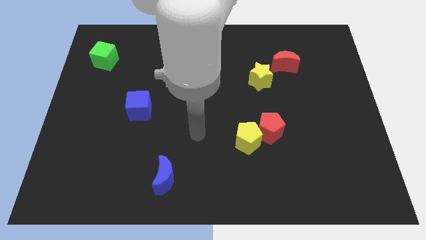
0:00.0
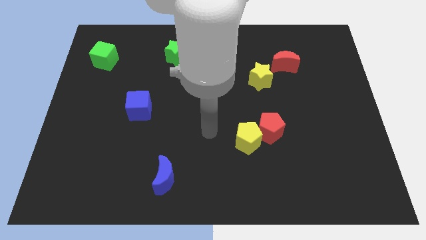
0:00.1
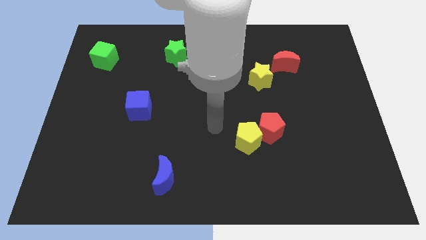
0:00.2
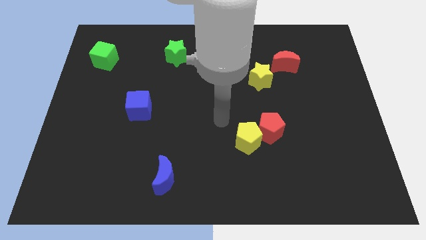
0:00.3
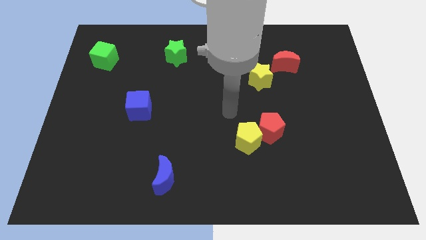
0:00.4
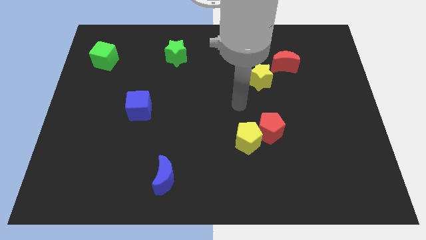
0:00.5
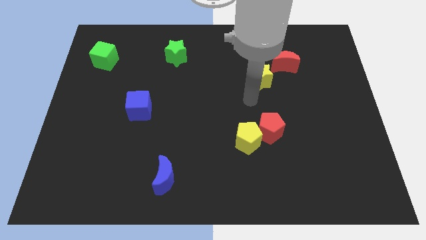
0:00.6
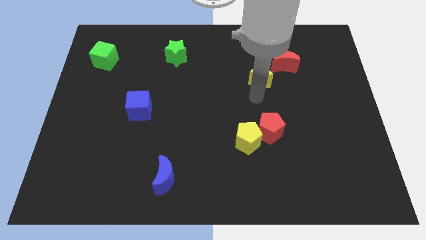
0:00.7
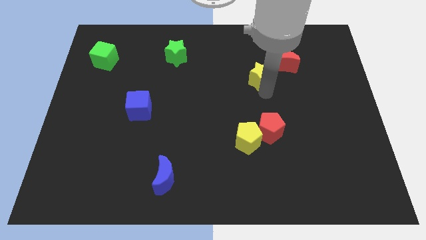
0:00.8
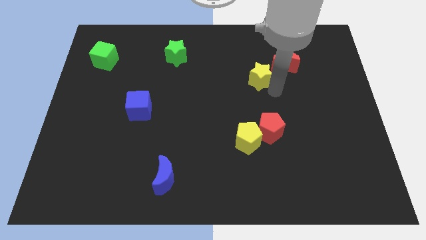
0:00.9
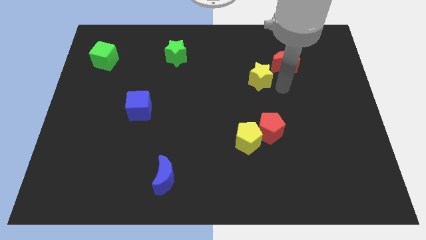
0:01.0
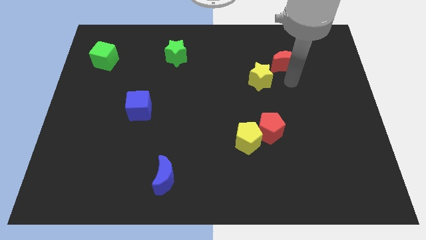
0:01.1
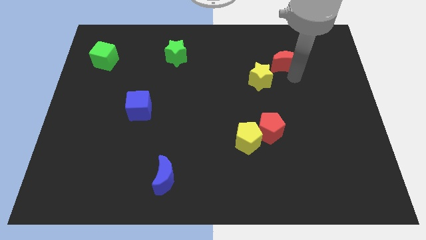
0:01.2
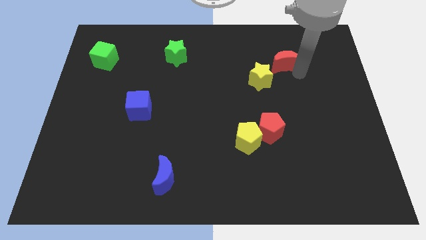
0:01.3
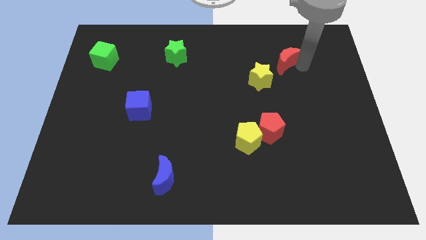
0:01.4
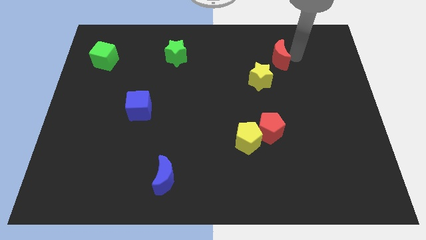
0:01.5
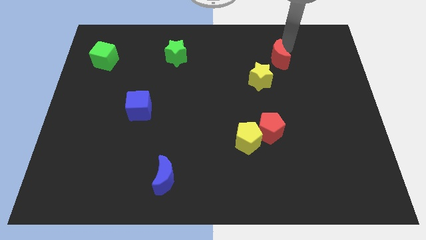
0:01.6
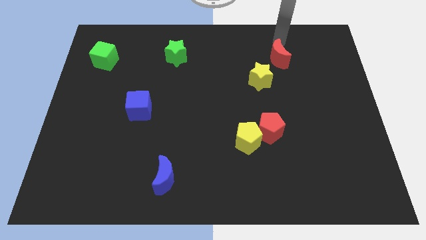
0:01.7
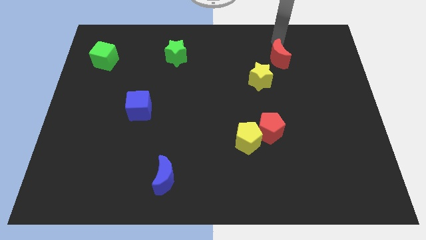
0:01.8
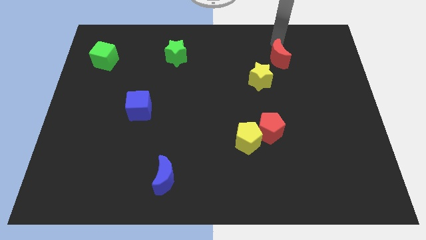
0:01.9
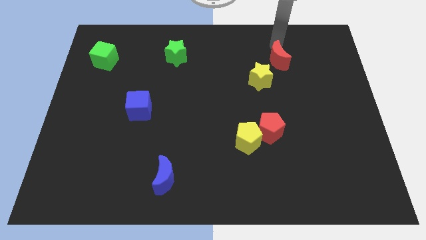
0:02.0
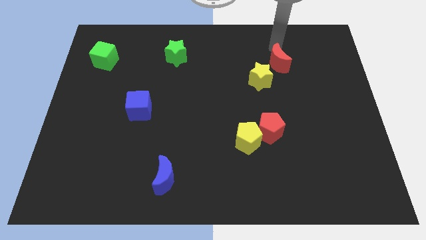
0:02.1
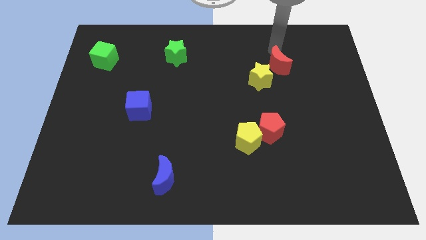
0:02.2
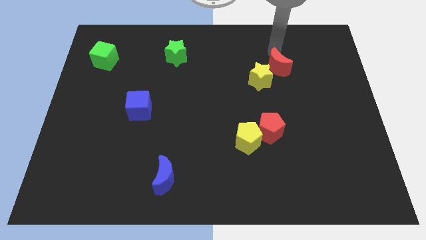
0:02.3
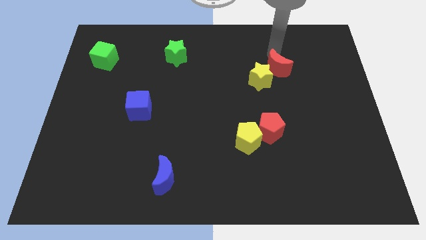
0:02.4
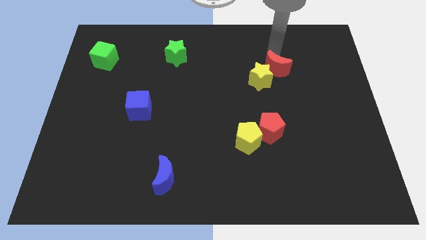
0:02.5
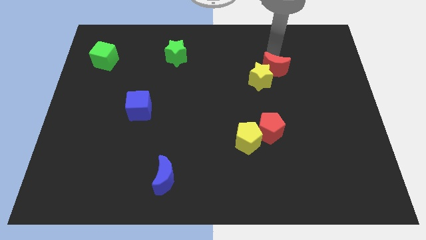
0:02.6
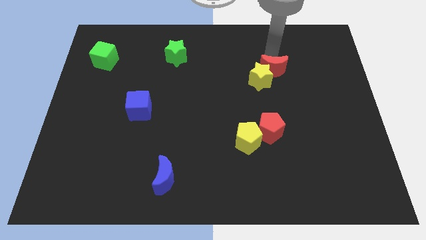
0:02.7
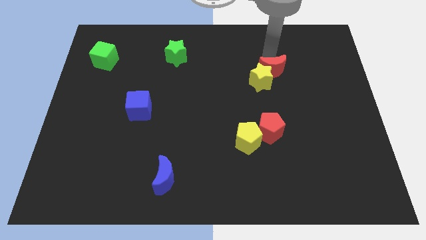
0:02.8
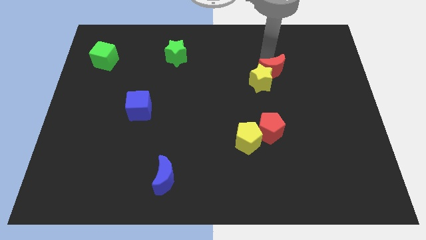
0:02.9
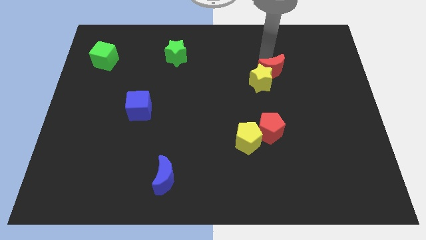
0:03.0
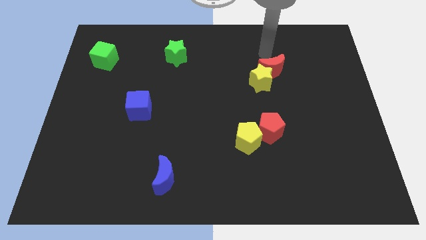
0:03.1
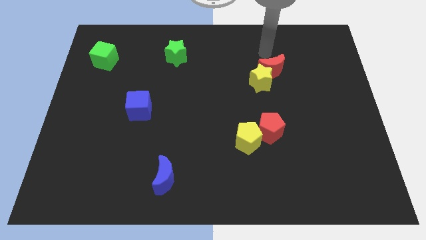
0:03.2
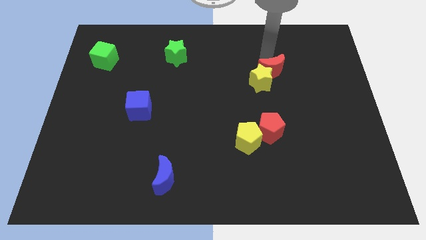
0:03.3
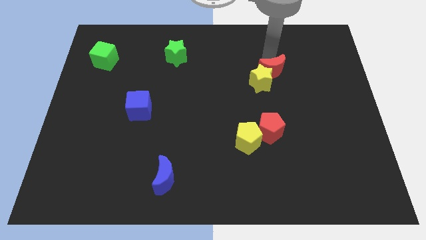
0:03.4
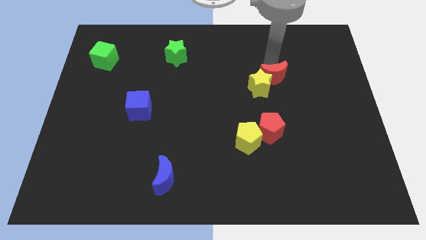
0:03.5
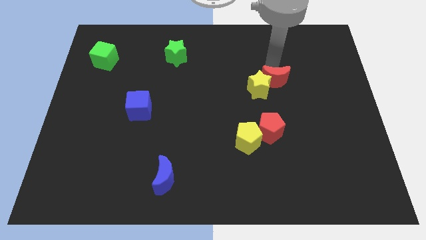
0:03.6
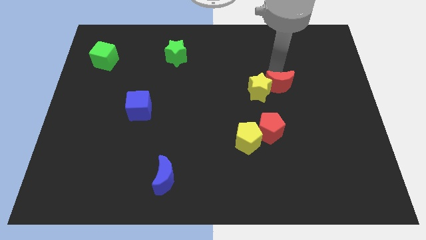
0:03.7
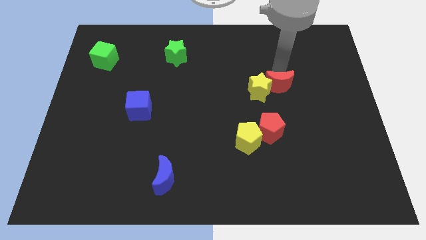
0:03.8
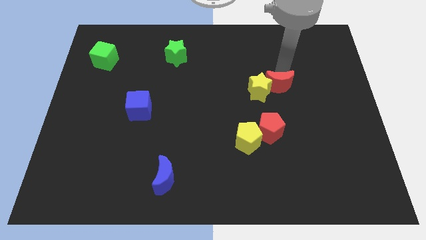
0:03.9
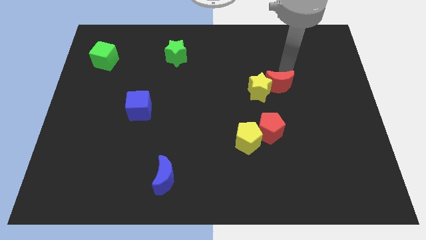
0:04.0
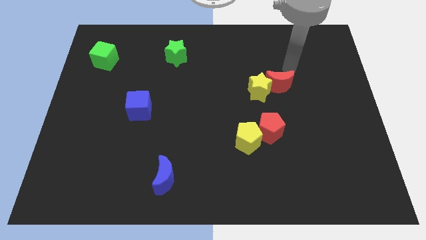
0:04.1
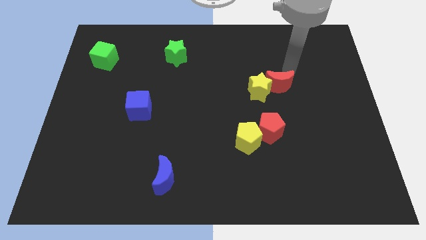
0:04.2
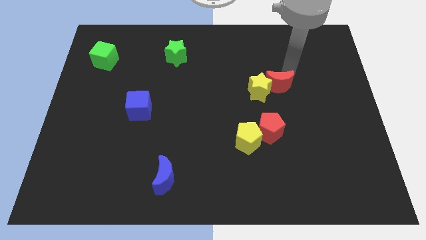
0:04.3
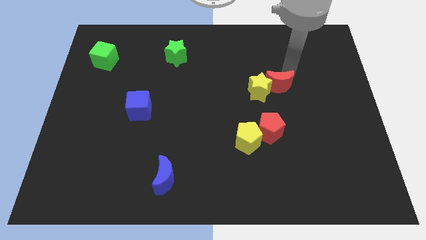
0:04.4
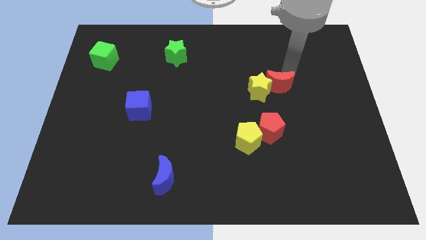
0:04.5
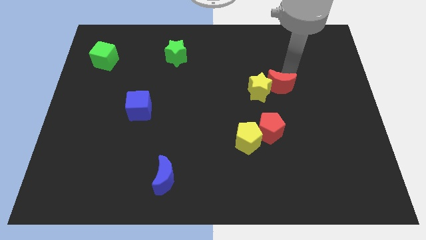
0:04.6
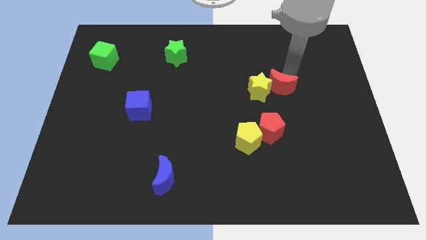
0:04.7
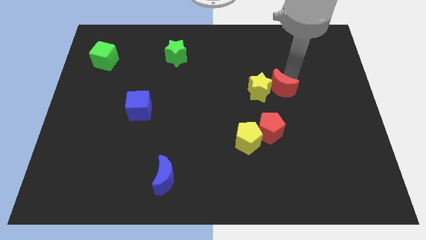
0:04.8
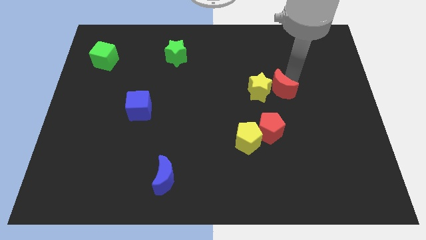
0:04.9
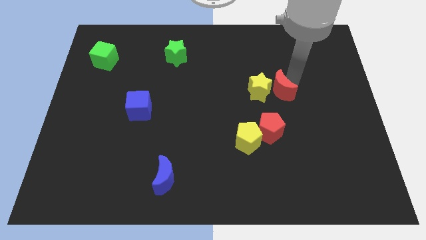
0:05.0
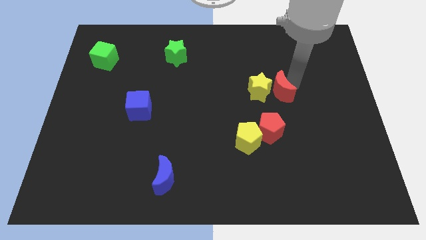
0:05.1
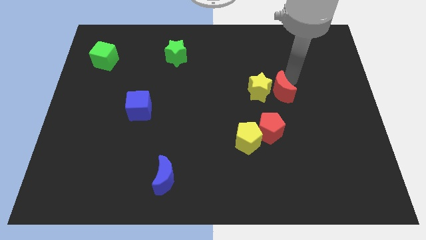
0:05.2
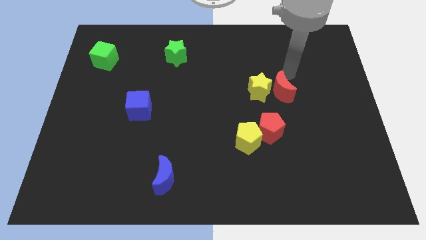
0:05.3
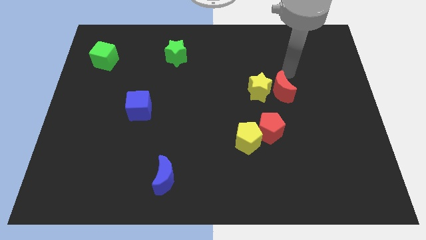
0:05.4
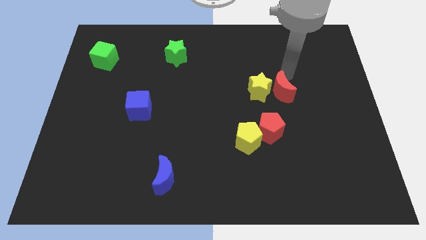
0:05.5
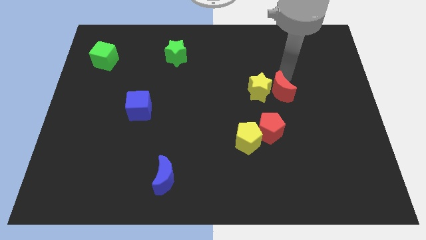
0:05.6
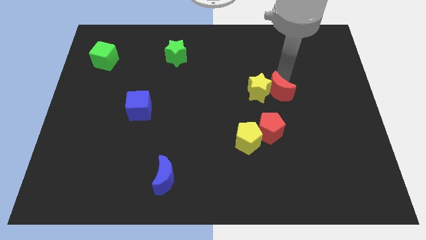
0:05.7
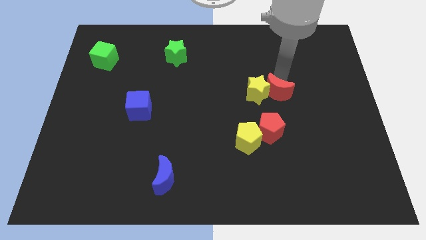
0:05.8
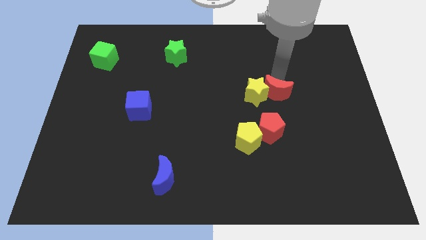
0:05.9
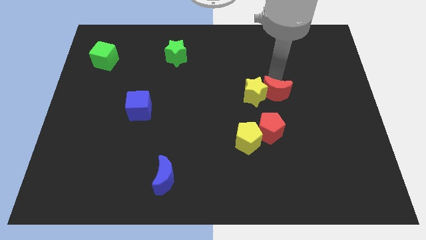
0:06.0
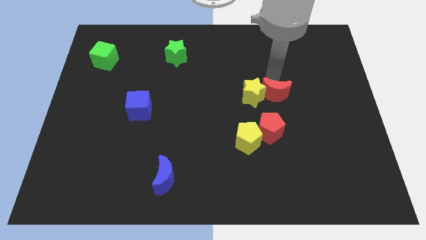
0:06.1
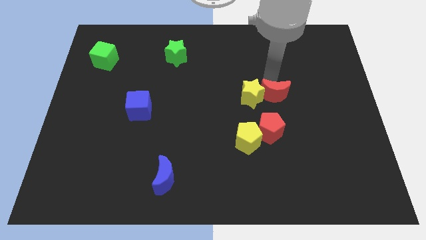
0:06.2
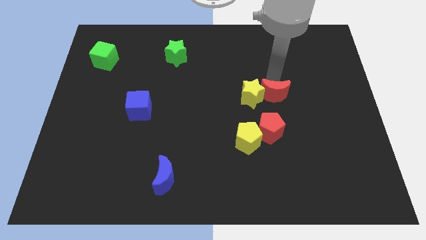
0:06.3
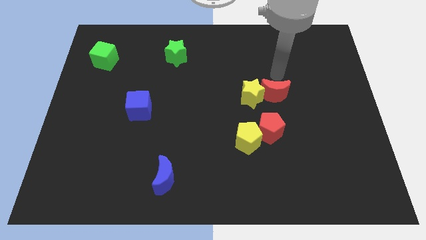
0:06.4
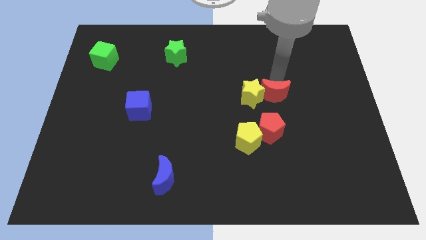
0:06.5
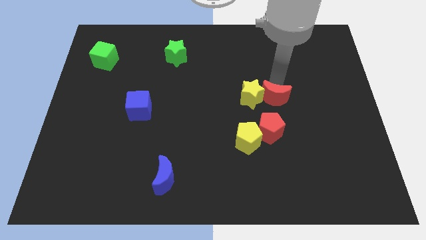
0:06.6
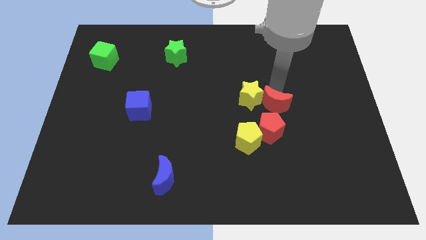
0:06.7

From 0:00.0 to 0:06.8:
slide the red moon to the top right of the yellow pentagon

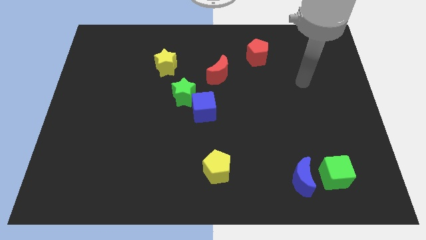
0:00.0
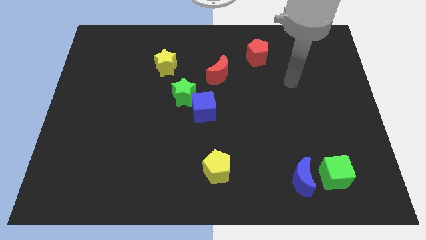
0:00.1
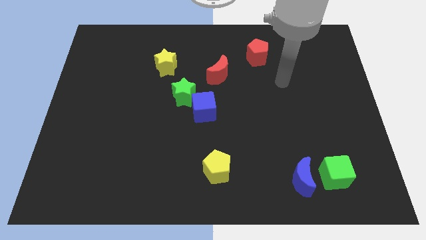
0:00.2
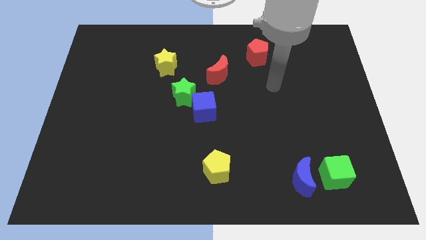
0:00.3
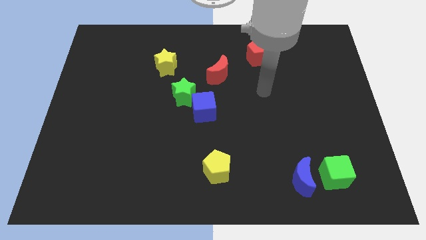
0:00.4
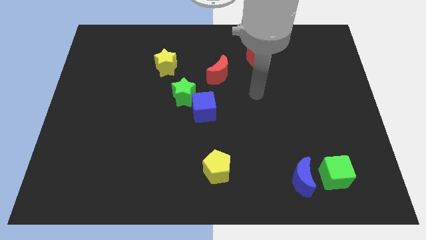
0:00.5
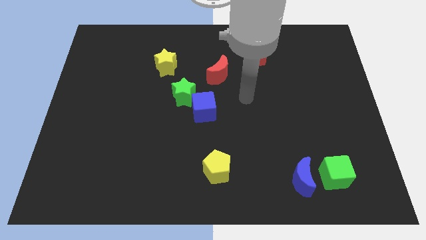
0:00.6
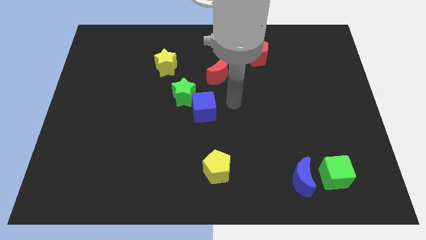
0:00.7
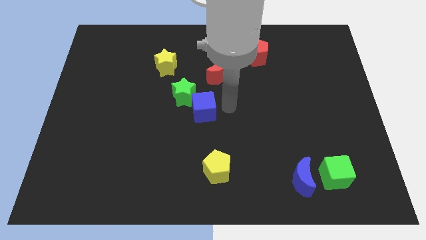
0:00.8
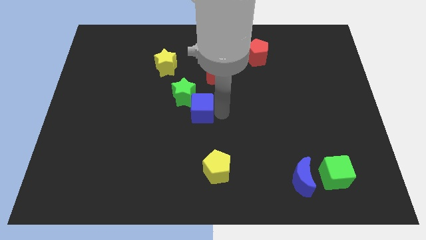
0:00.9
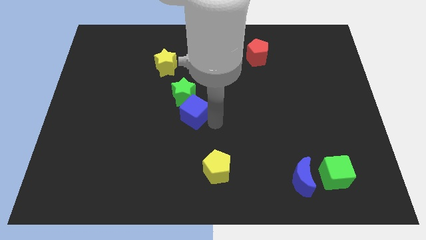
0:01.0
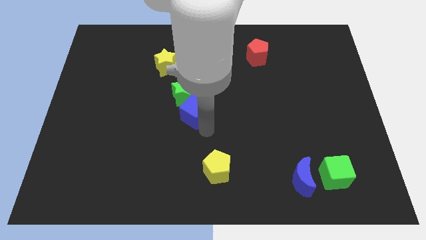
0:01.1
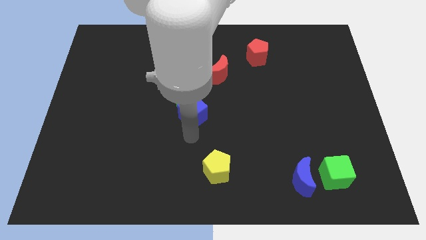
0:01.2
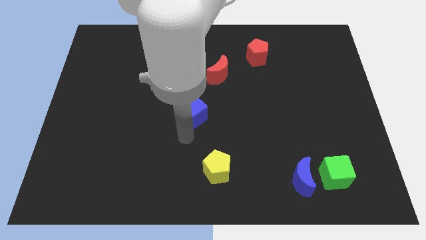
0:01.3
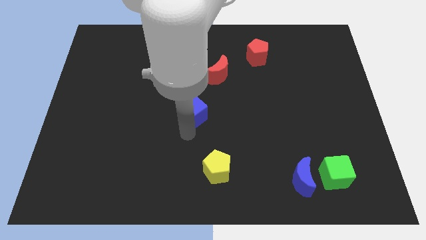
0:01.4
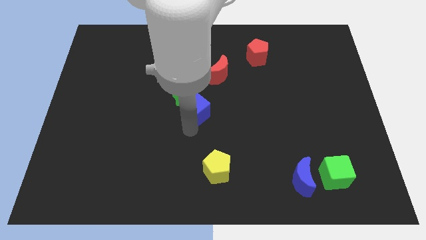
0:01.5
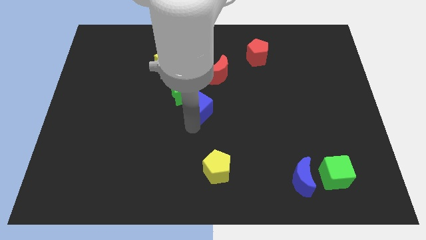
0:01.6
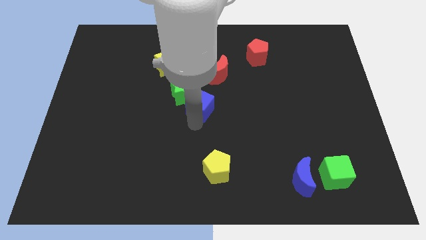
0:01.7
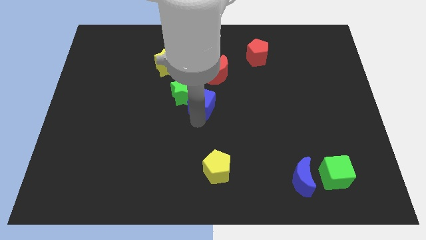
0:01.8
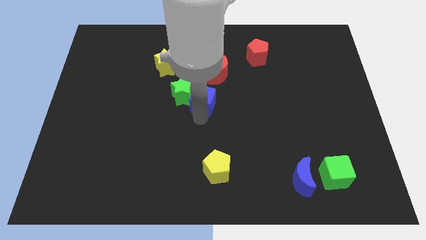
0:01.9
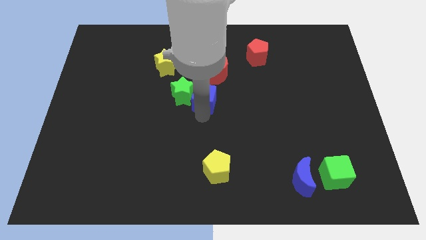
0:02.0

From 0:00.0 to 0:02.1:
move the blue cube diagonally up and to the right of the green star
